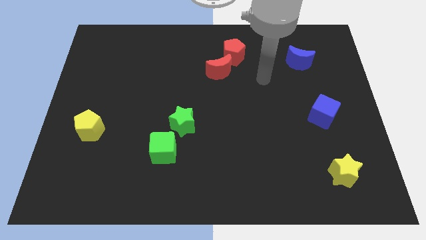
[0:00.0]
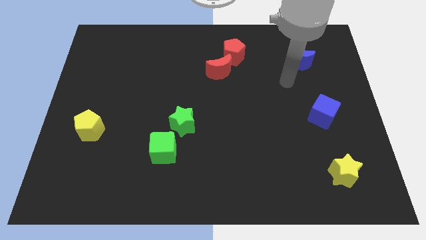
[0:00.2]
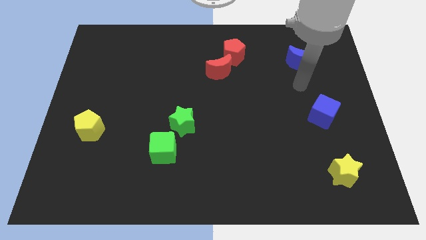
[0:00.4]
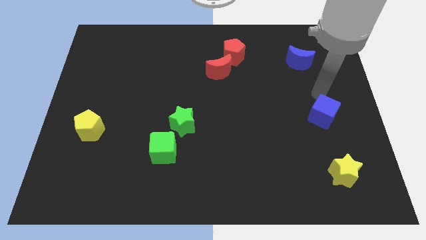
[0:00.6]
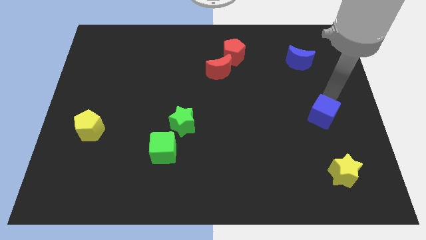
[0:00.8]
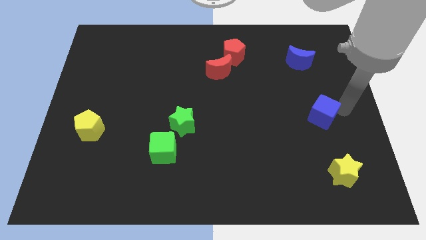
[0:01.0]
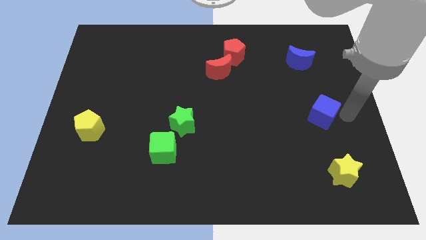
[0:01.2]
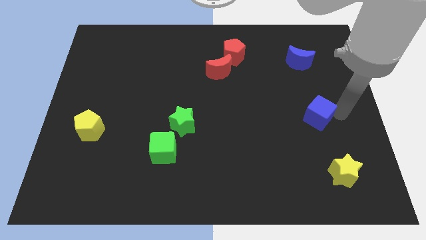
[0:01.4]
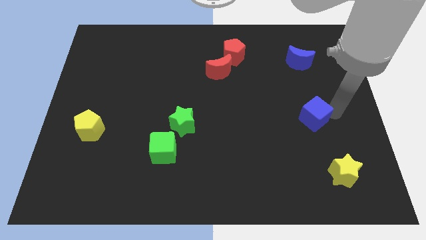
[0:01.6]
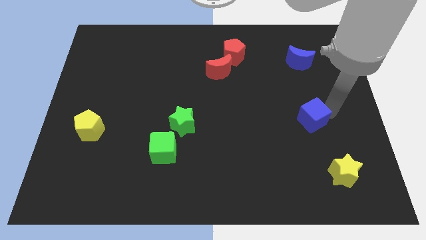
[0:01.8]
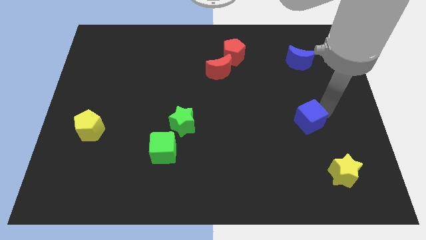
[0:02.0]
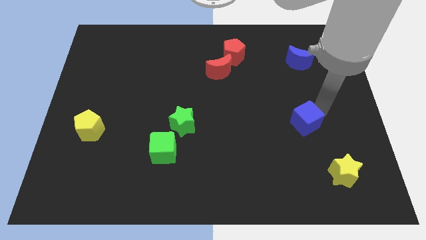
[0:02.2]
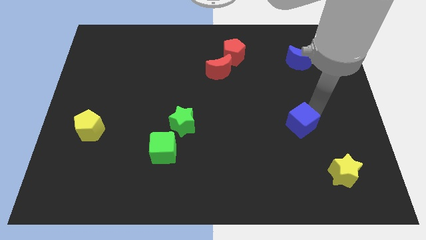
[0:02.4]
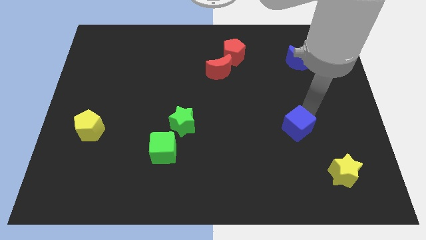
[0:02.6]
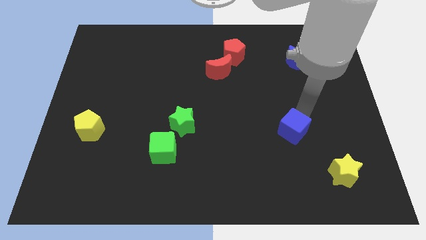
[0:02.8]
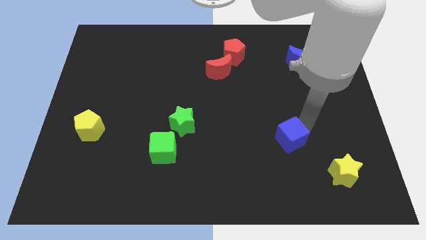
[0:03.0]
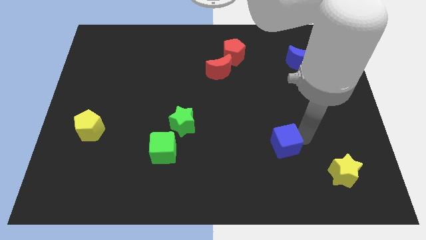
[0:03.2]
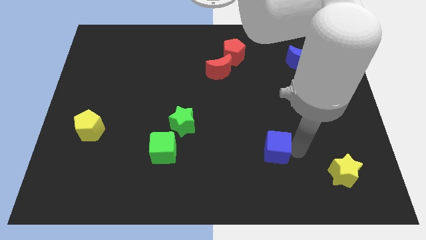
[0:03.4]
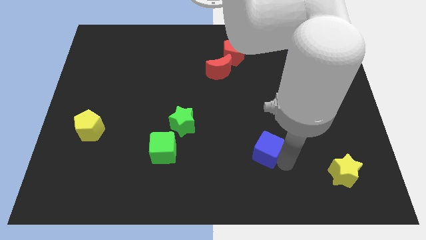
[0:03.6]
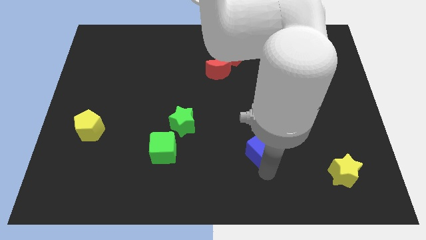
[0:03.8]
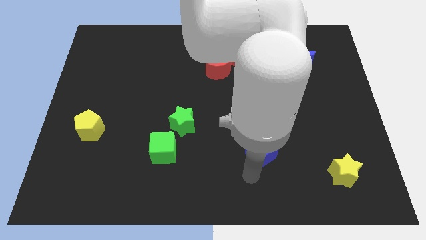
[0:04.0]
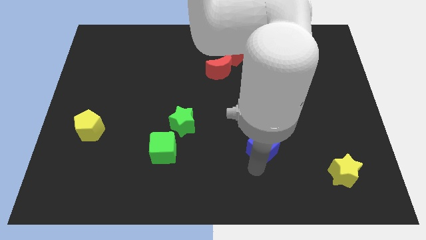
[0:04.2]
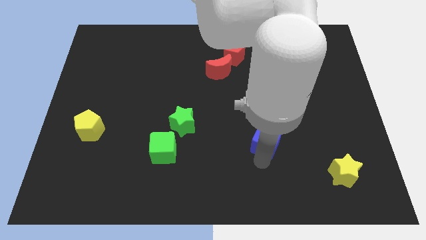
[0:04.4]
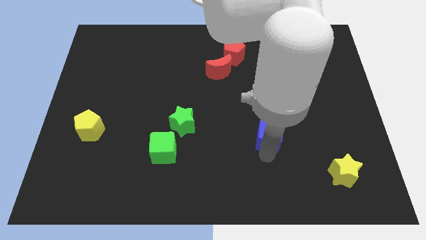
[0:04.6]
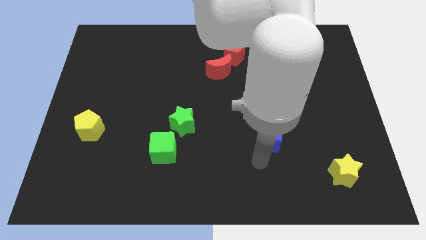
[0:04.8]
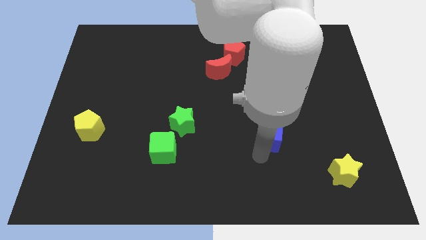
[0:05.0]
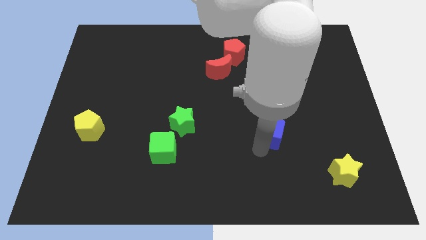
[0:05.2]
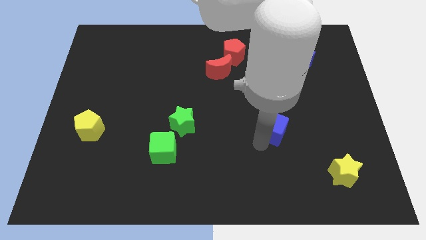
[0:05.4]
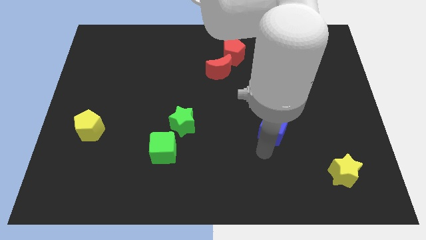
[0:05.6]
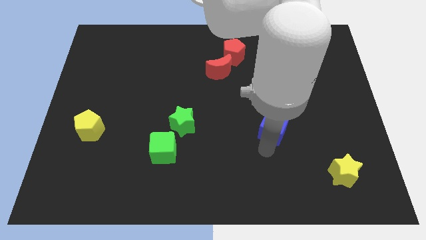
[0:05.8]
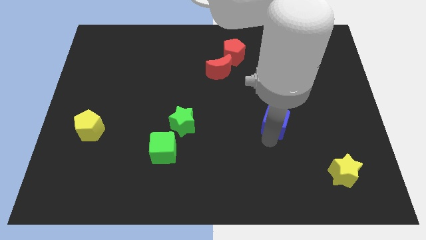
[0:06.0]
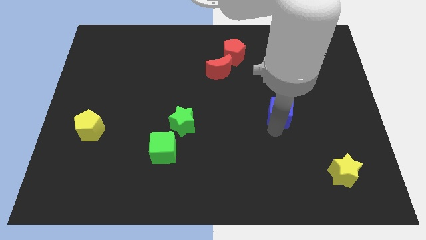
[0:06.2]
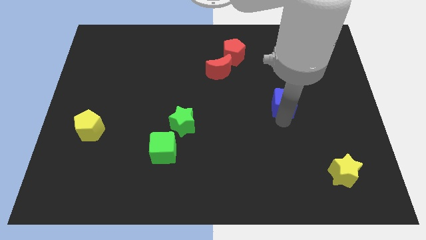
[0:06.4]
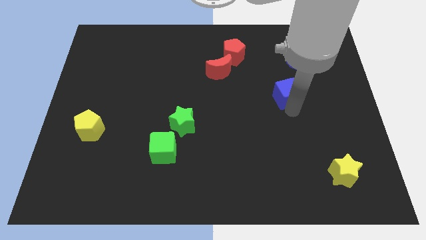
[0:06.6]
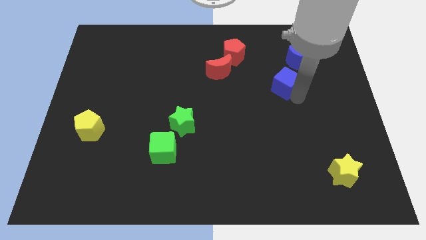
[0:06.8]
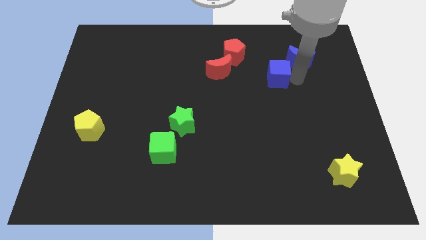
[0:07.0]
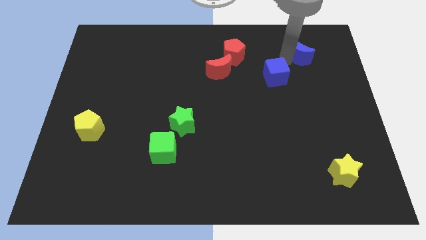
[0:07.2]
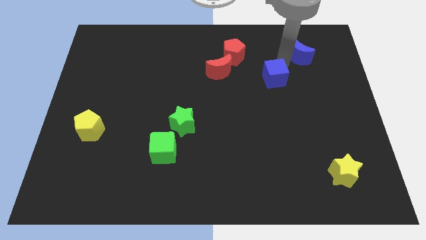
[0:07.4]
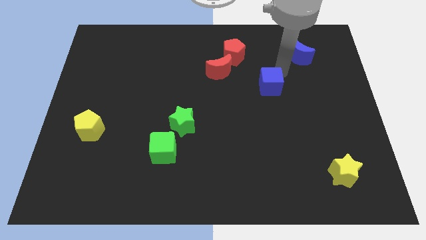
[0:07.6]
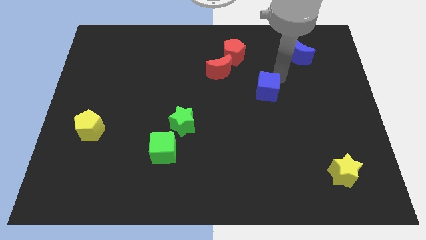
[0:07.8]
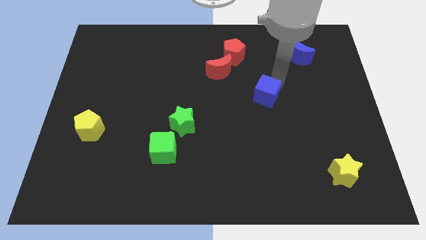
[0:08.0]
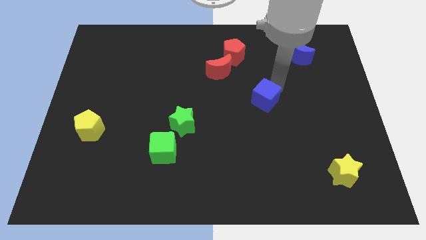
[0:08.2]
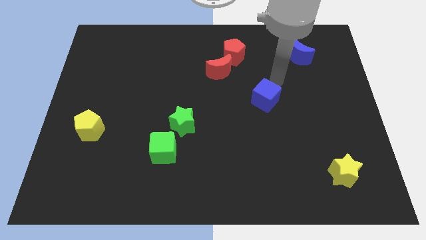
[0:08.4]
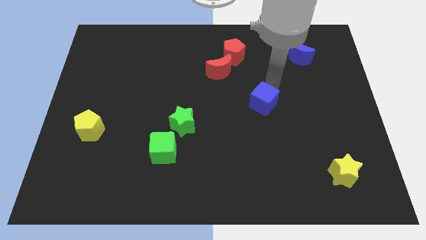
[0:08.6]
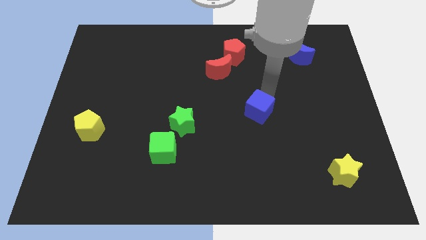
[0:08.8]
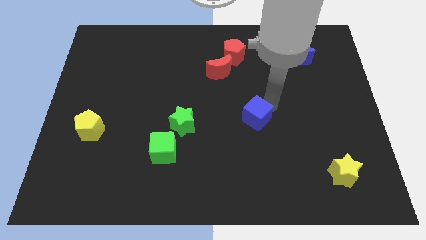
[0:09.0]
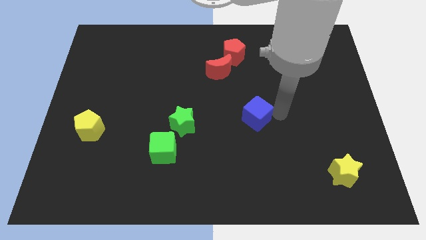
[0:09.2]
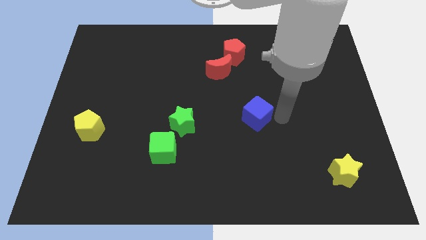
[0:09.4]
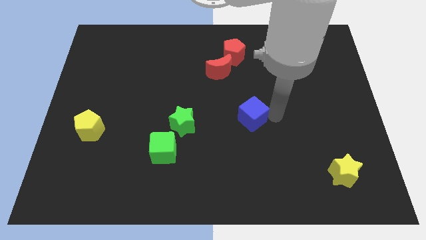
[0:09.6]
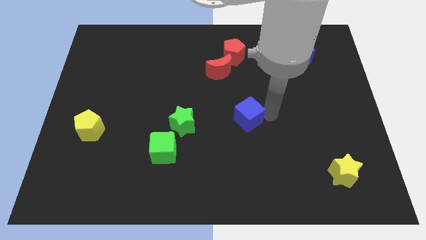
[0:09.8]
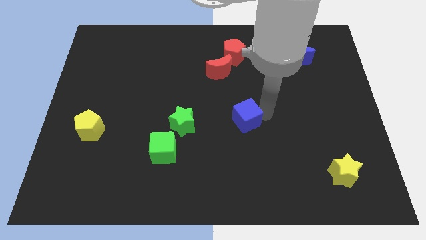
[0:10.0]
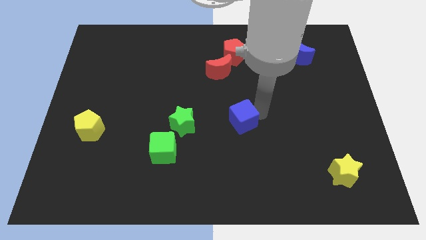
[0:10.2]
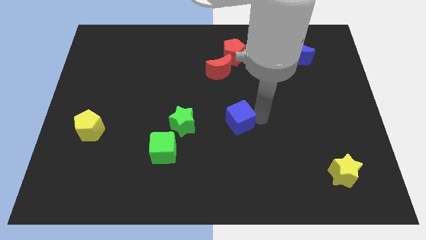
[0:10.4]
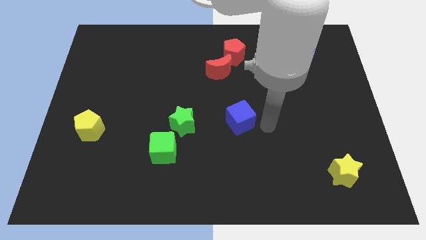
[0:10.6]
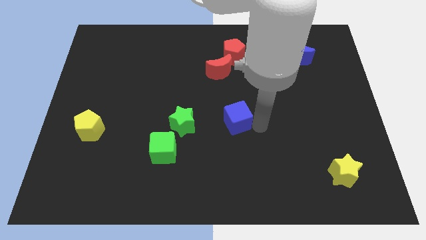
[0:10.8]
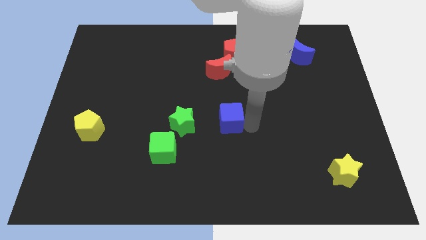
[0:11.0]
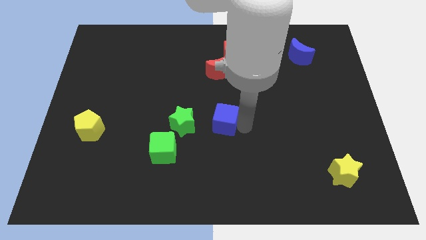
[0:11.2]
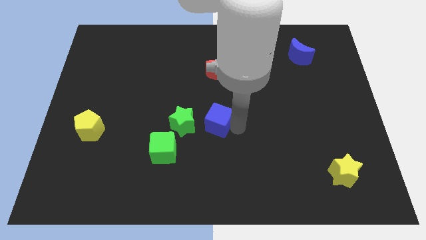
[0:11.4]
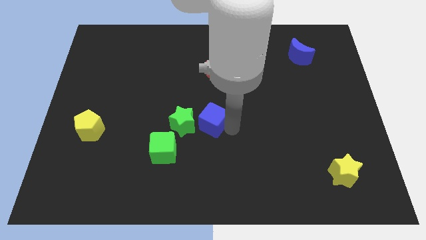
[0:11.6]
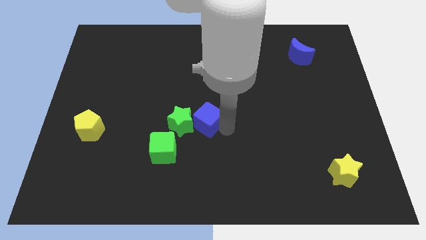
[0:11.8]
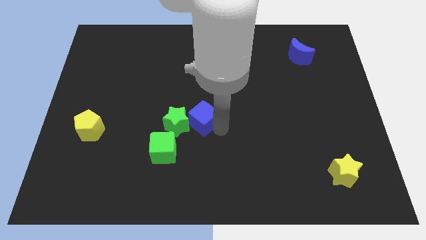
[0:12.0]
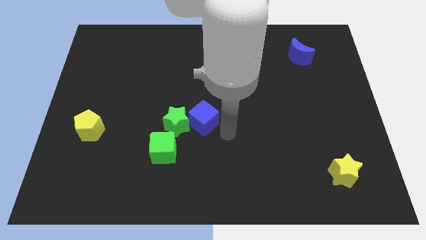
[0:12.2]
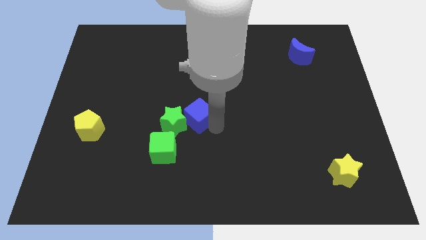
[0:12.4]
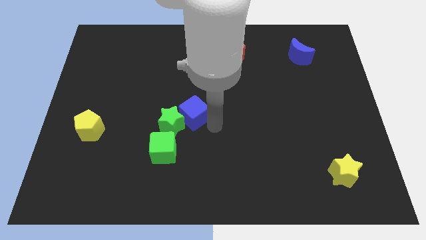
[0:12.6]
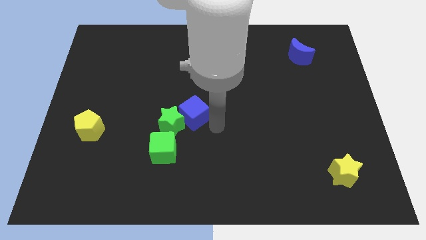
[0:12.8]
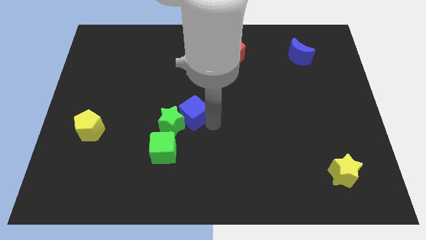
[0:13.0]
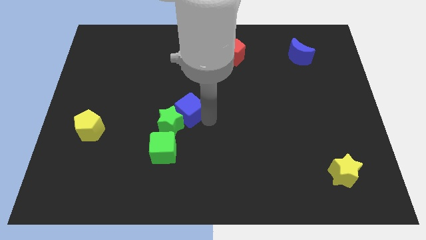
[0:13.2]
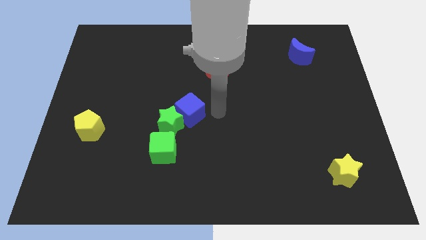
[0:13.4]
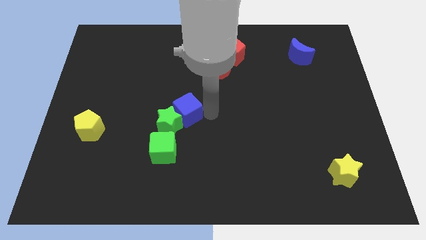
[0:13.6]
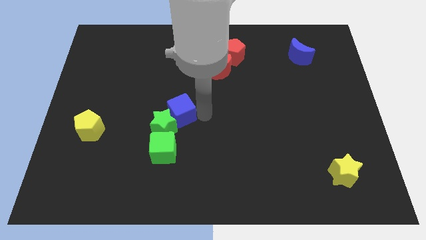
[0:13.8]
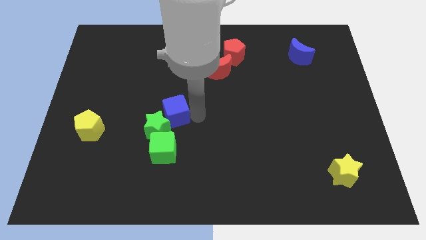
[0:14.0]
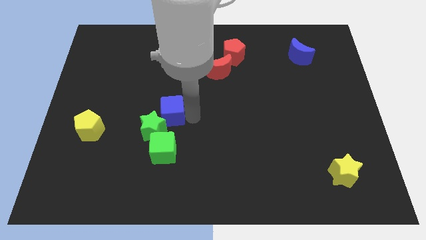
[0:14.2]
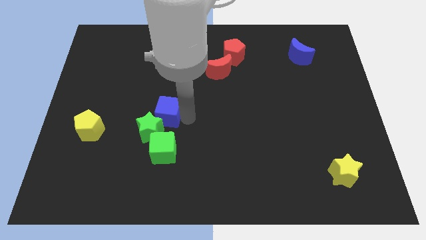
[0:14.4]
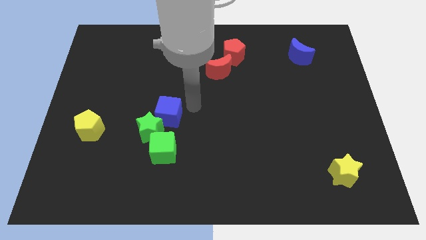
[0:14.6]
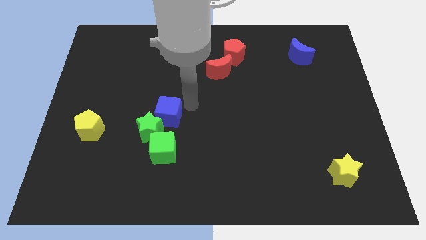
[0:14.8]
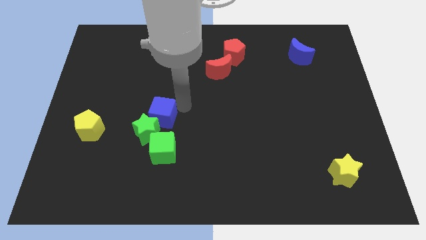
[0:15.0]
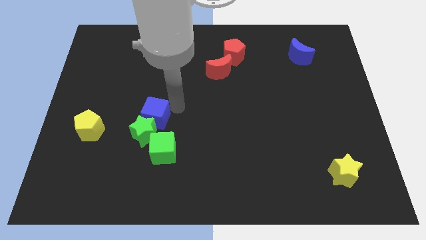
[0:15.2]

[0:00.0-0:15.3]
move the blue cube just right of the yellow pentagon

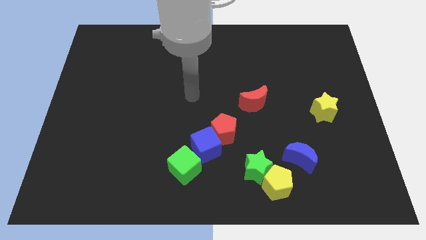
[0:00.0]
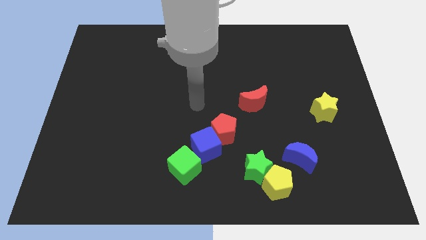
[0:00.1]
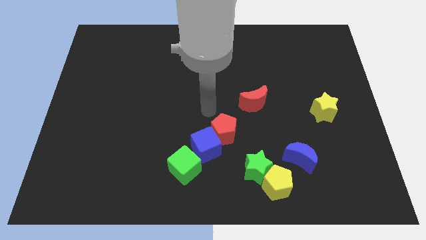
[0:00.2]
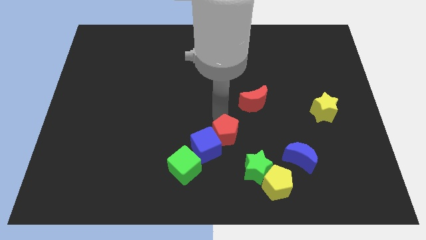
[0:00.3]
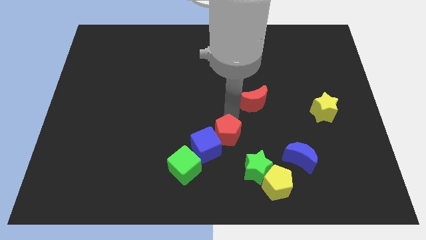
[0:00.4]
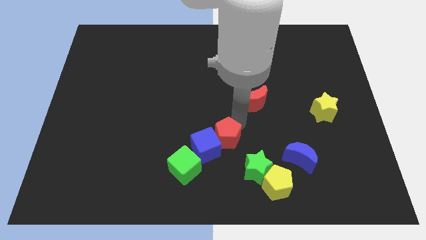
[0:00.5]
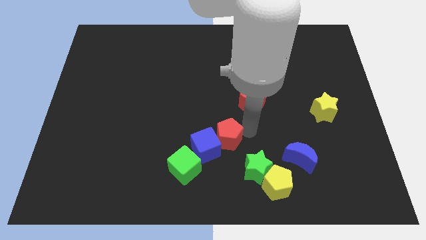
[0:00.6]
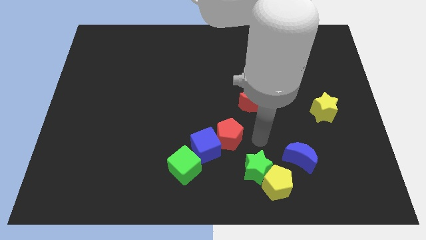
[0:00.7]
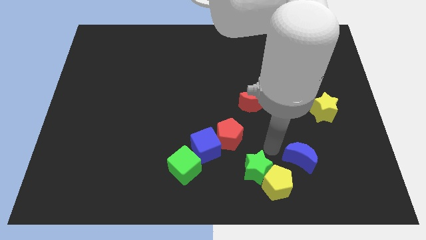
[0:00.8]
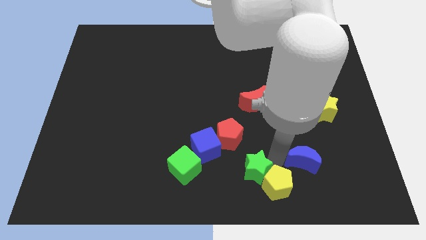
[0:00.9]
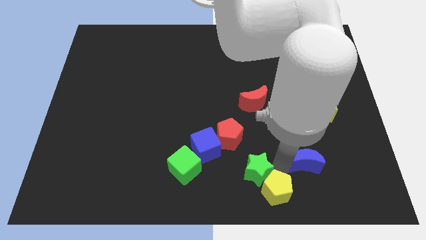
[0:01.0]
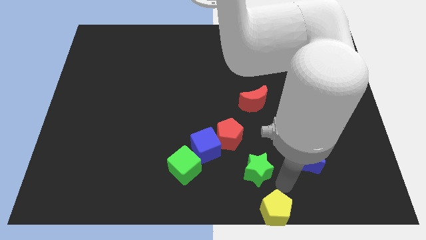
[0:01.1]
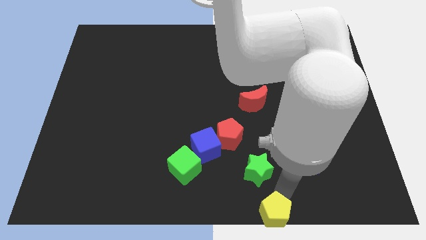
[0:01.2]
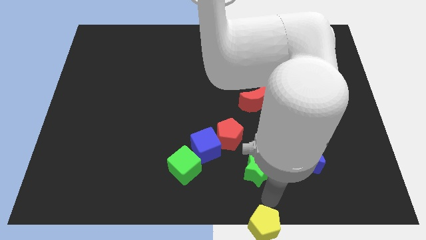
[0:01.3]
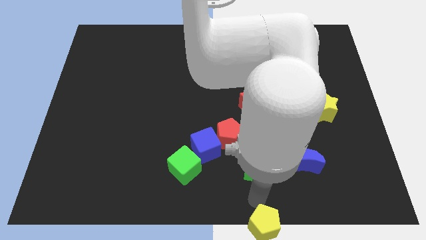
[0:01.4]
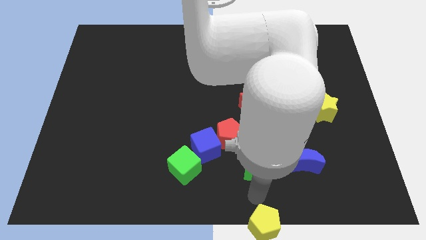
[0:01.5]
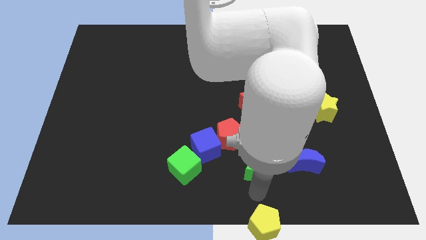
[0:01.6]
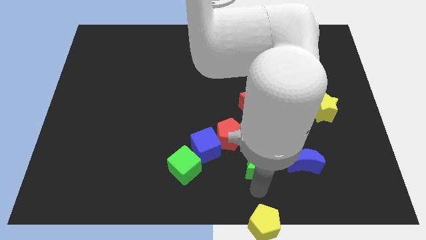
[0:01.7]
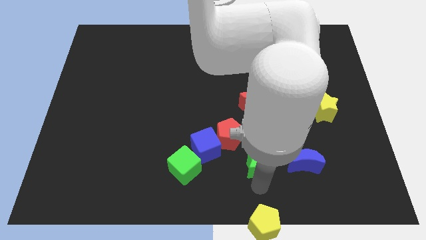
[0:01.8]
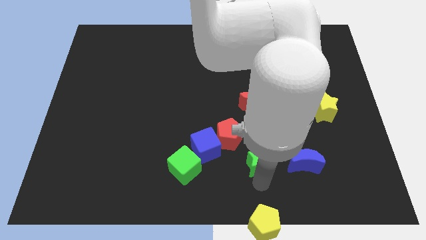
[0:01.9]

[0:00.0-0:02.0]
slide the green star to the bottom side of the red moon
